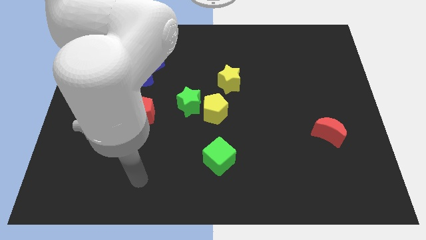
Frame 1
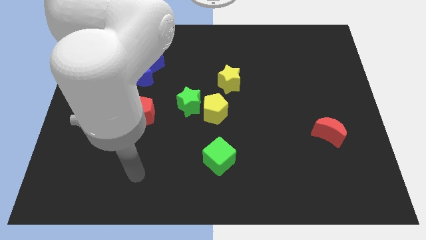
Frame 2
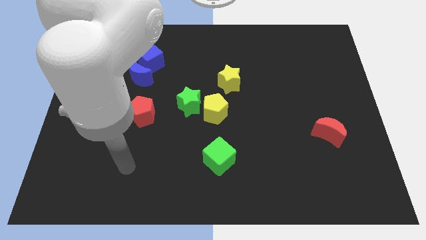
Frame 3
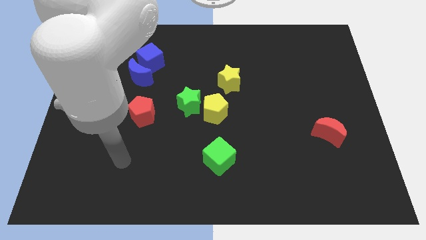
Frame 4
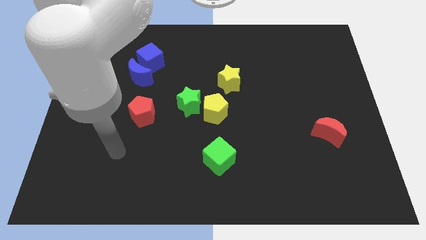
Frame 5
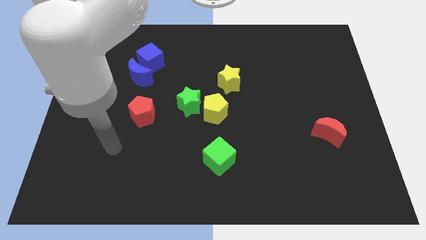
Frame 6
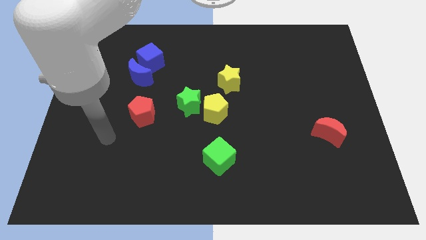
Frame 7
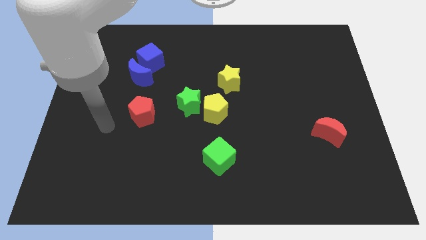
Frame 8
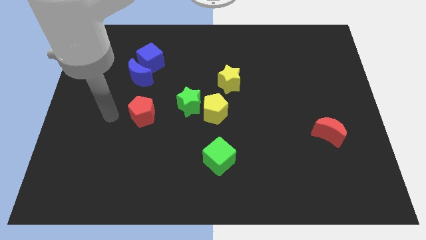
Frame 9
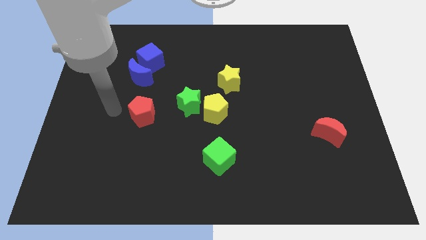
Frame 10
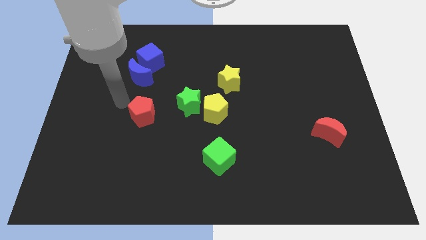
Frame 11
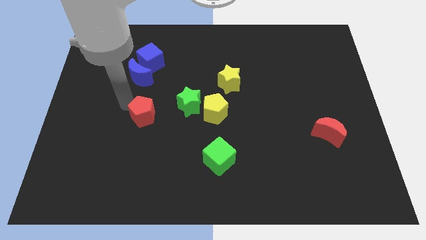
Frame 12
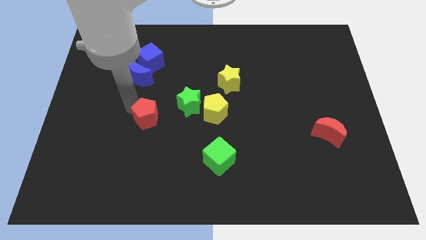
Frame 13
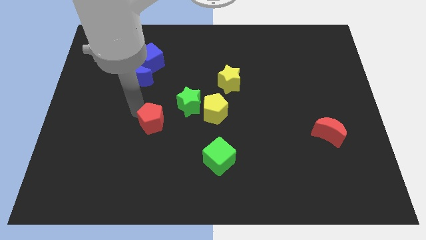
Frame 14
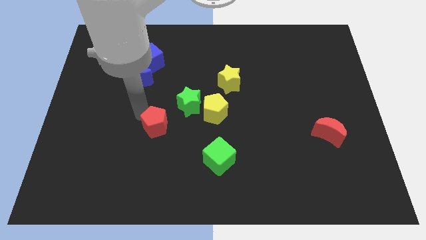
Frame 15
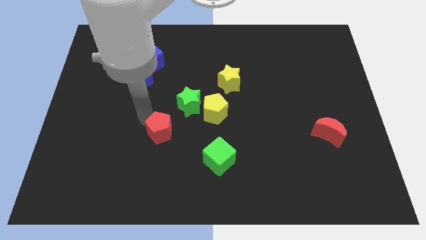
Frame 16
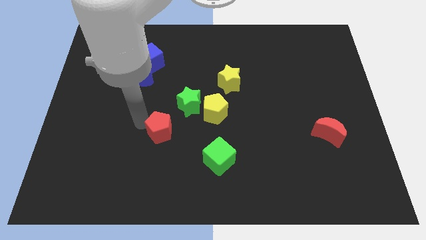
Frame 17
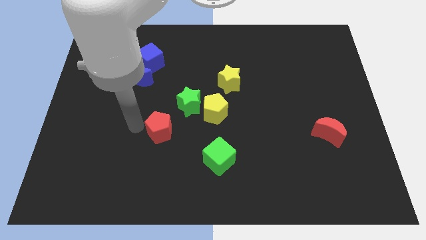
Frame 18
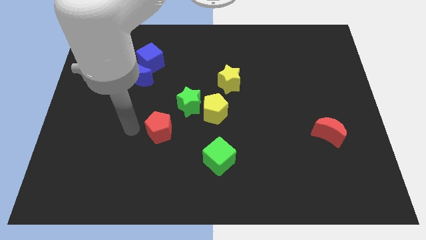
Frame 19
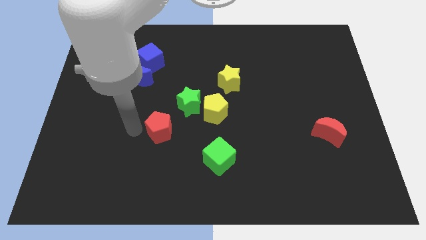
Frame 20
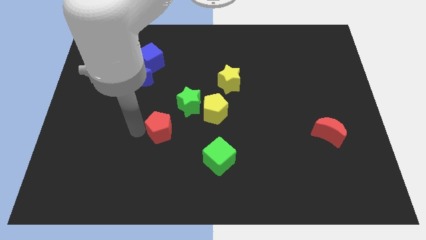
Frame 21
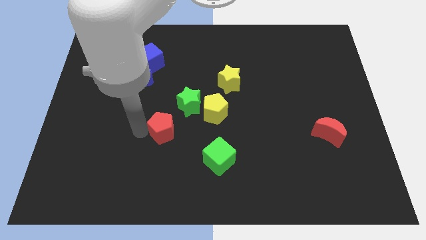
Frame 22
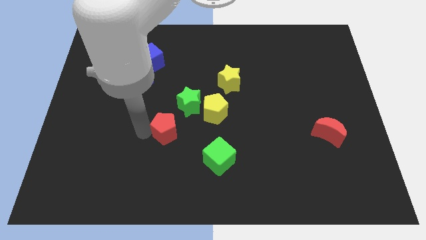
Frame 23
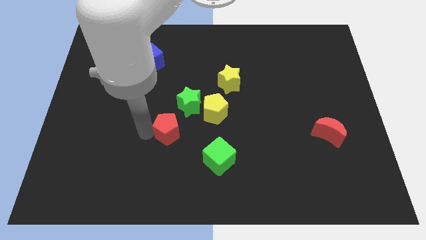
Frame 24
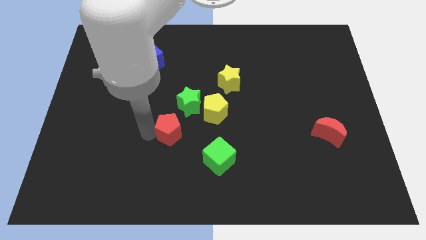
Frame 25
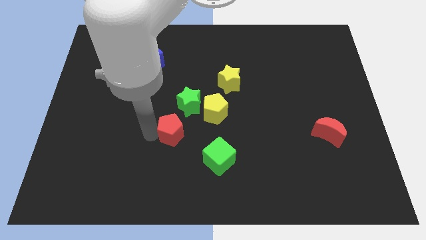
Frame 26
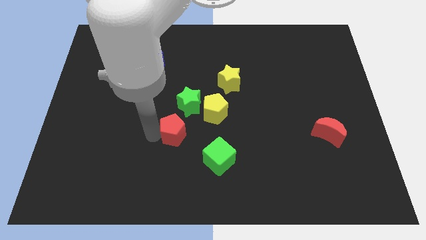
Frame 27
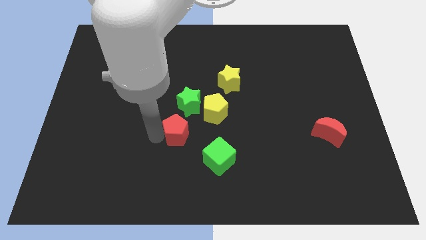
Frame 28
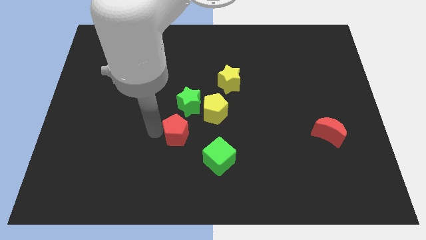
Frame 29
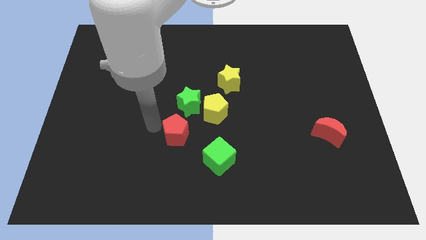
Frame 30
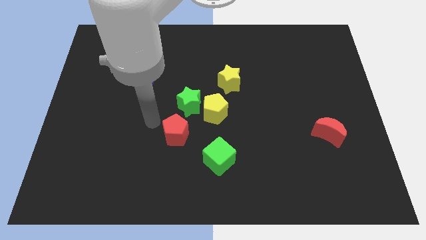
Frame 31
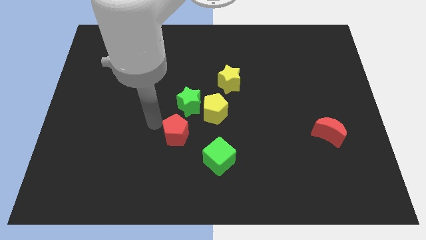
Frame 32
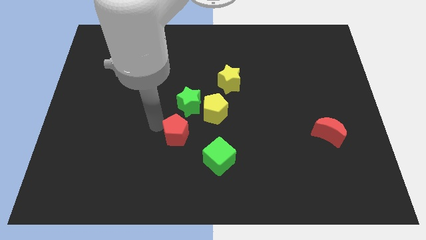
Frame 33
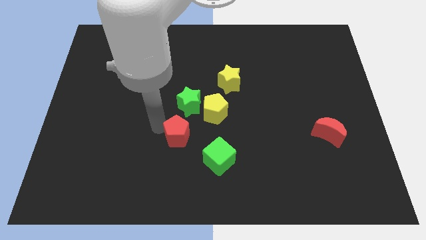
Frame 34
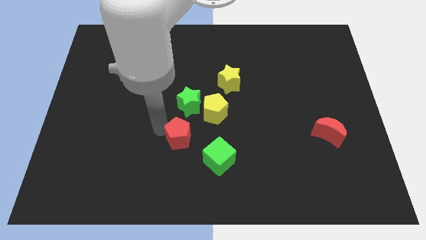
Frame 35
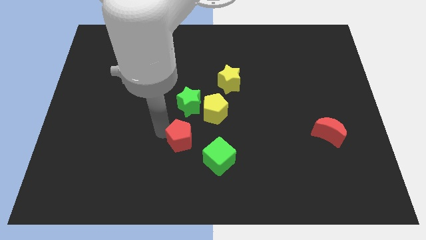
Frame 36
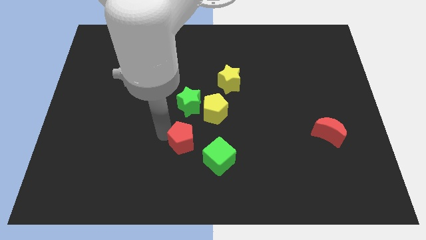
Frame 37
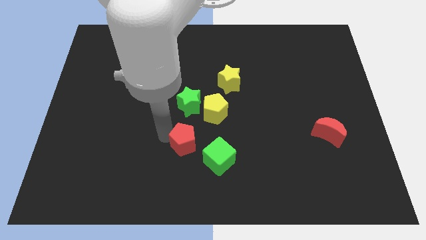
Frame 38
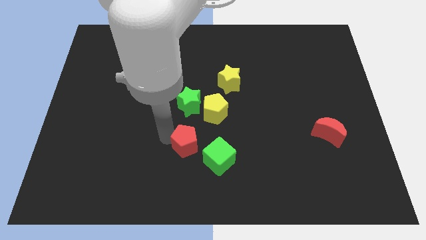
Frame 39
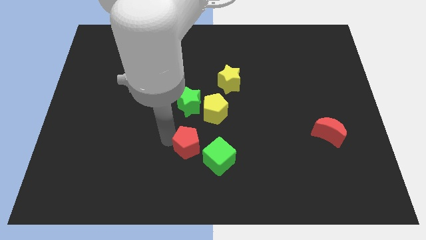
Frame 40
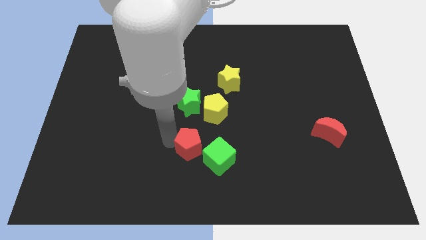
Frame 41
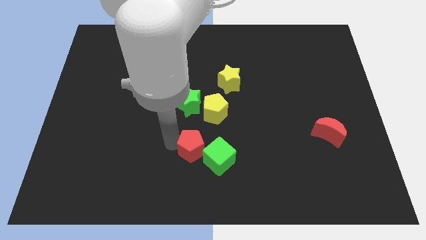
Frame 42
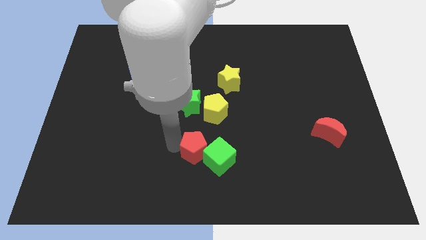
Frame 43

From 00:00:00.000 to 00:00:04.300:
push the red pentagon to the green cube

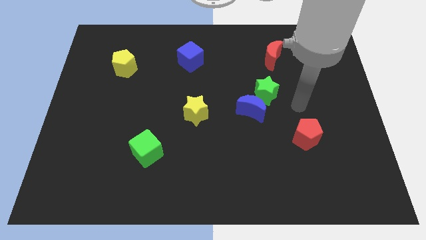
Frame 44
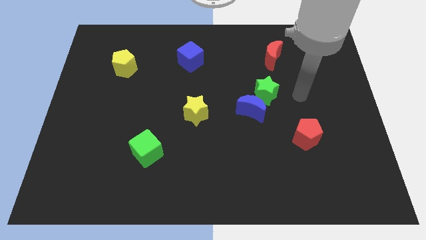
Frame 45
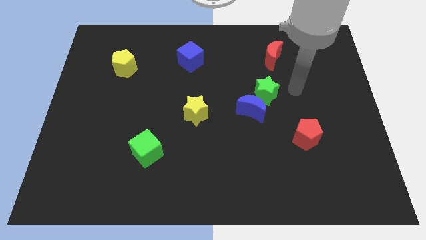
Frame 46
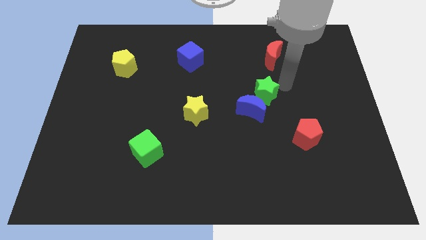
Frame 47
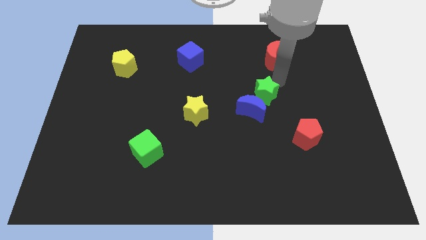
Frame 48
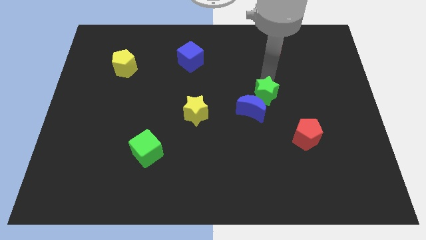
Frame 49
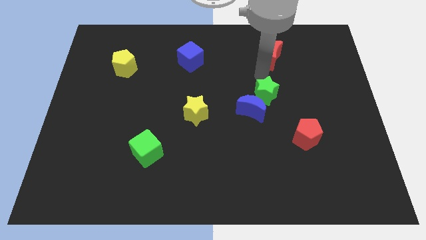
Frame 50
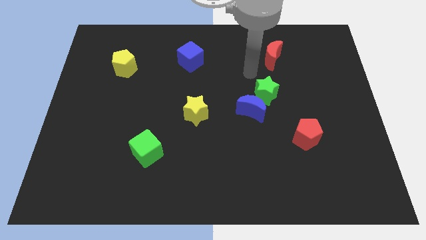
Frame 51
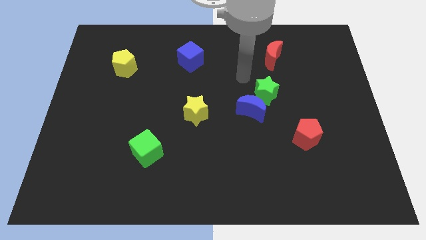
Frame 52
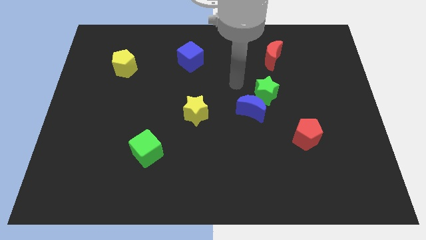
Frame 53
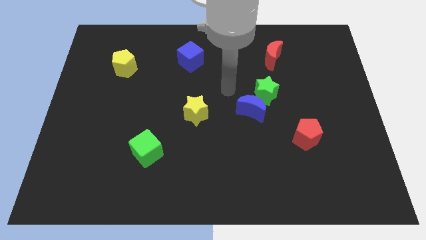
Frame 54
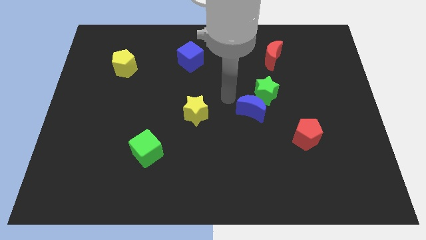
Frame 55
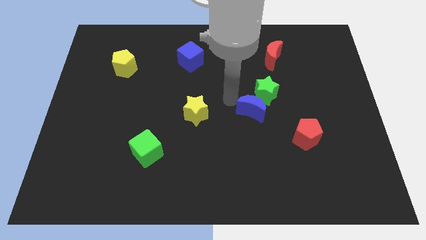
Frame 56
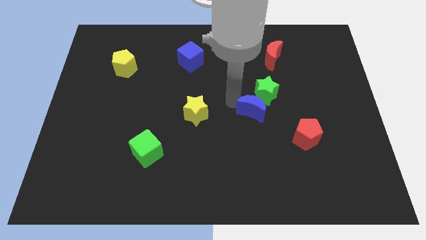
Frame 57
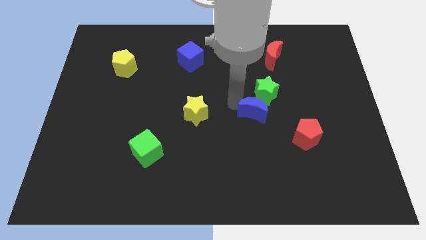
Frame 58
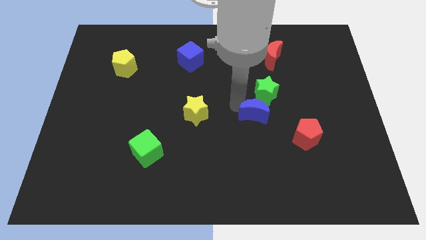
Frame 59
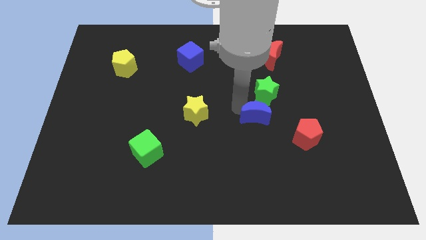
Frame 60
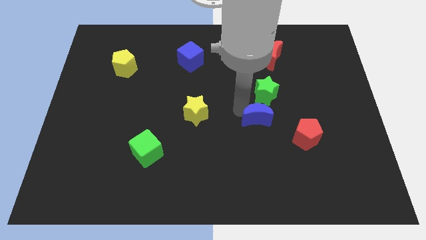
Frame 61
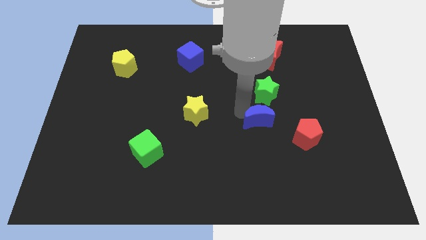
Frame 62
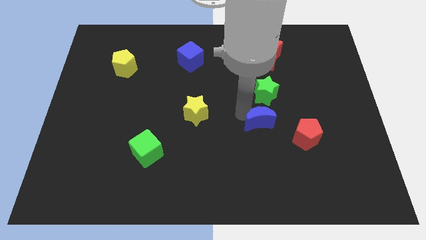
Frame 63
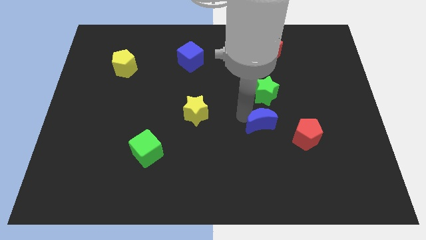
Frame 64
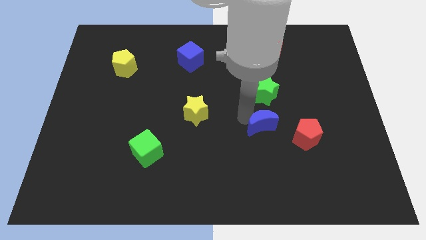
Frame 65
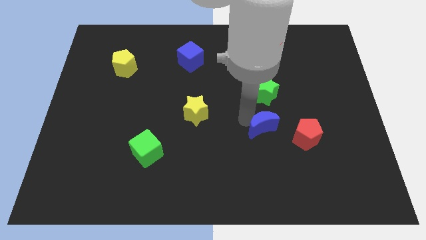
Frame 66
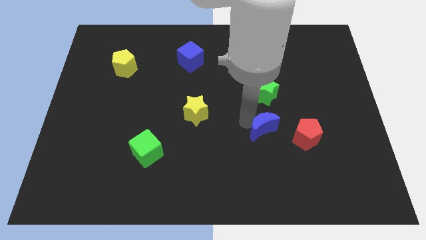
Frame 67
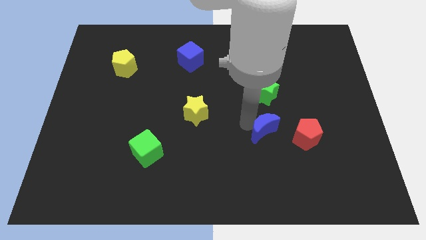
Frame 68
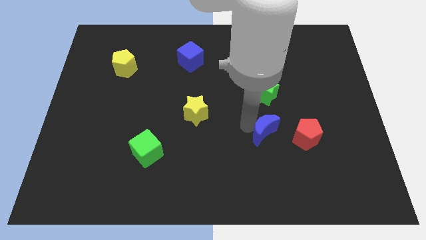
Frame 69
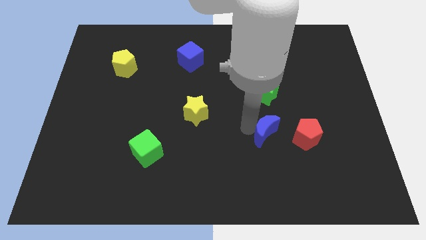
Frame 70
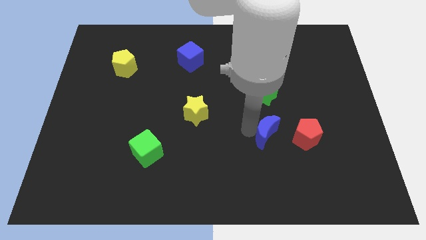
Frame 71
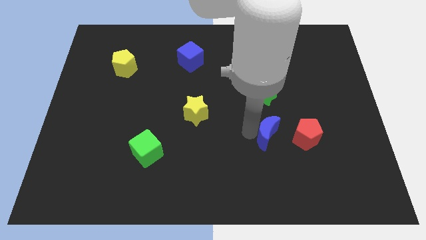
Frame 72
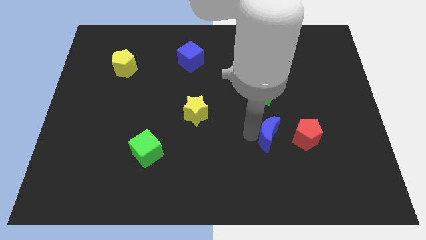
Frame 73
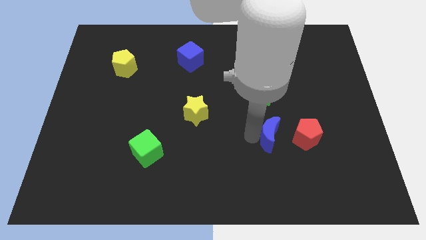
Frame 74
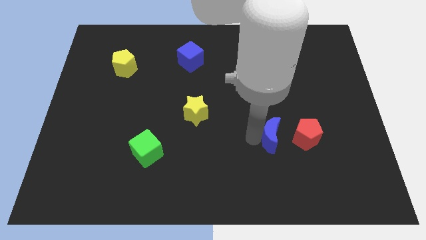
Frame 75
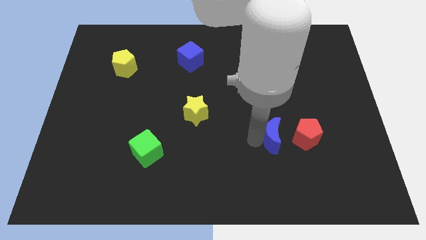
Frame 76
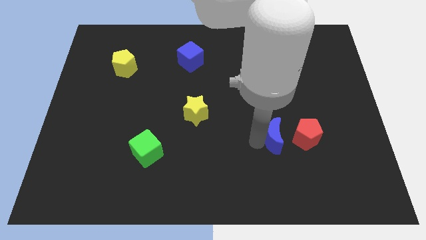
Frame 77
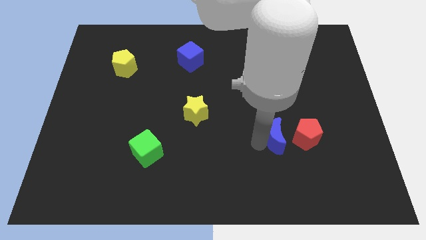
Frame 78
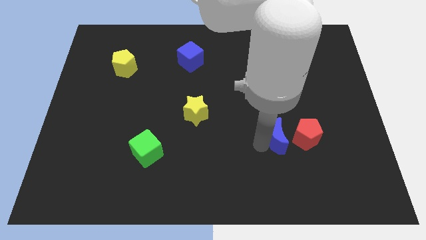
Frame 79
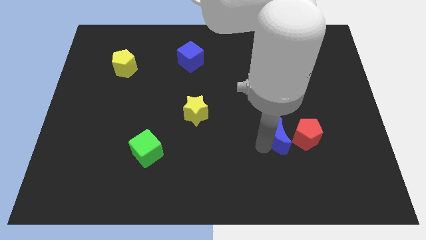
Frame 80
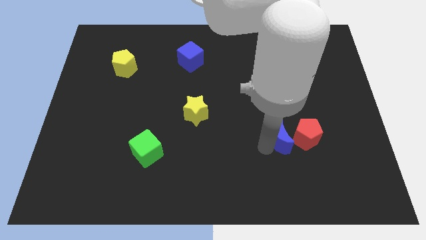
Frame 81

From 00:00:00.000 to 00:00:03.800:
put the blue moon towards the red pentagon

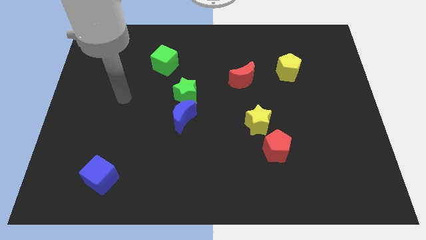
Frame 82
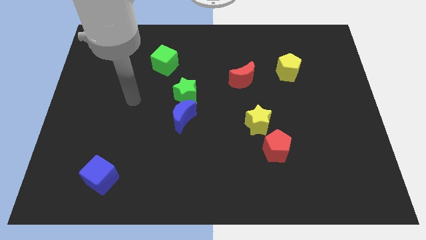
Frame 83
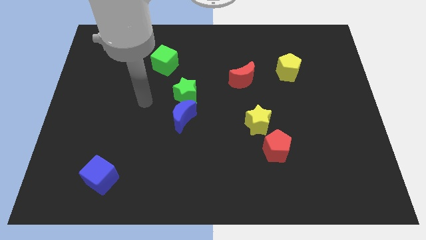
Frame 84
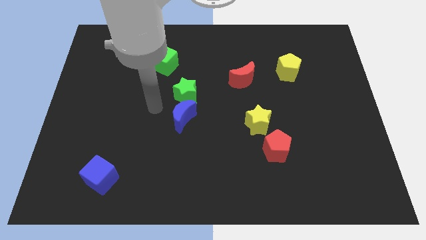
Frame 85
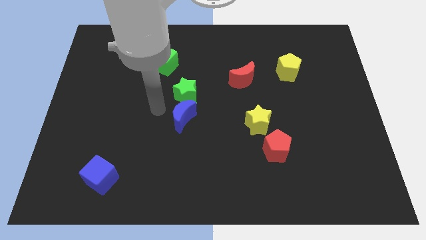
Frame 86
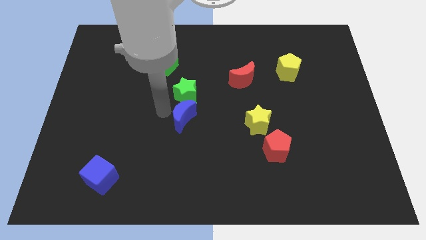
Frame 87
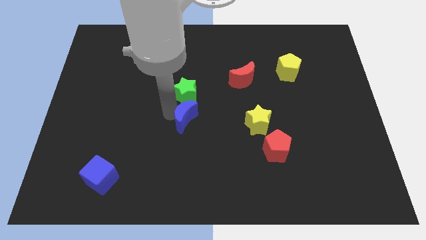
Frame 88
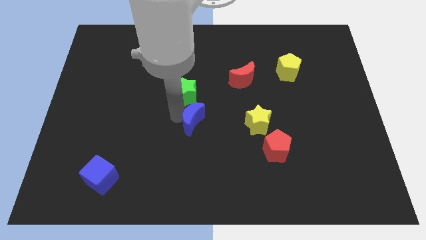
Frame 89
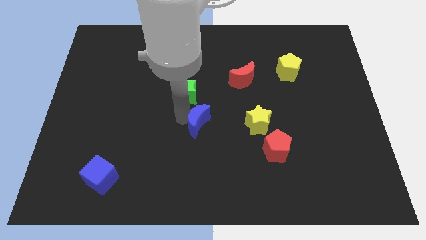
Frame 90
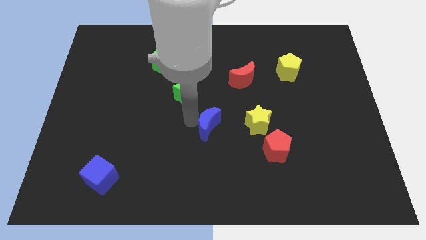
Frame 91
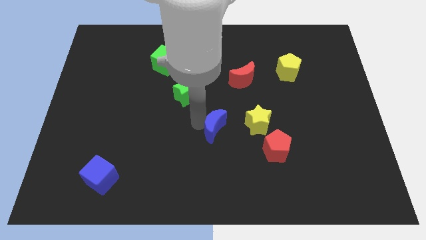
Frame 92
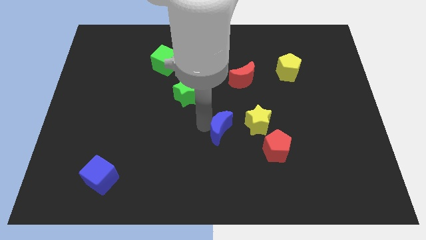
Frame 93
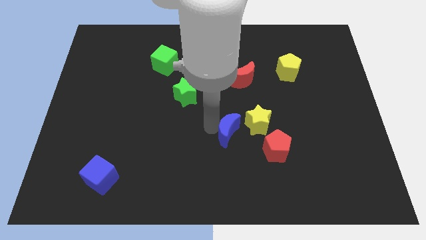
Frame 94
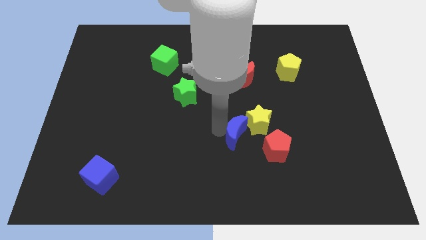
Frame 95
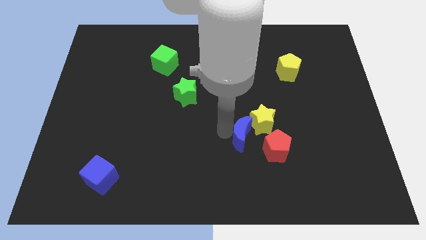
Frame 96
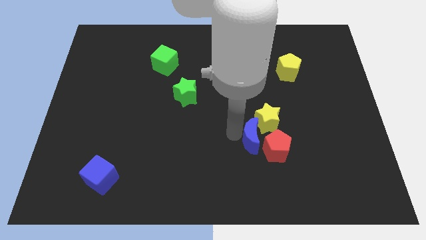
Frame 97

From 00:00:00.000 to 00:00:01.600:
put the blue moon close to the red pentagon
